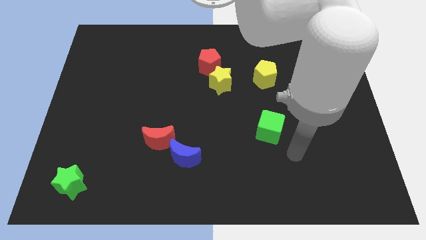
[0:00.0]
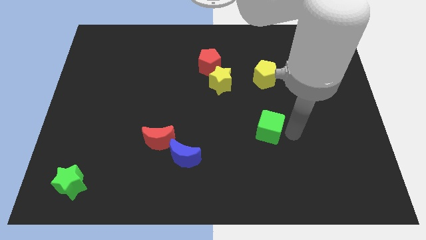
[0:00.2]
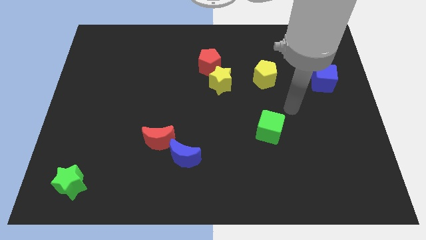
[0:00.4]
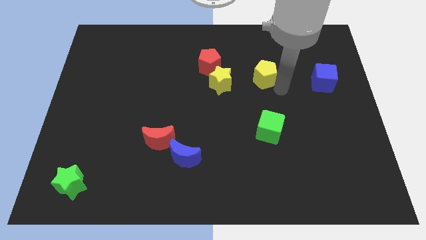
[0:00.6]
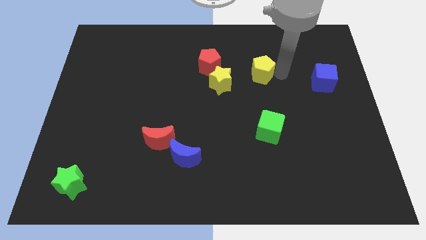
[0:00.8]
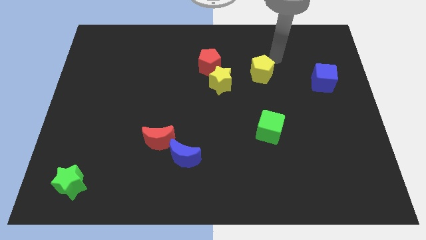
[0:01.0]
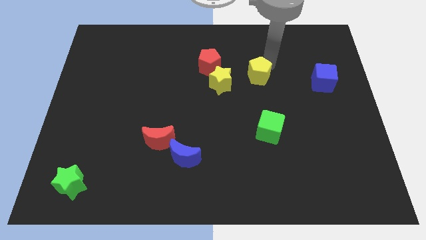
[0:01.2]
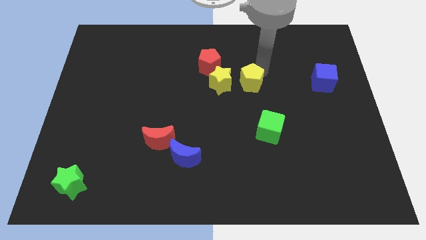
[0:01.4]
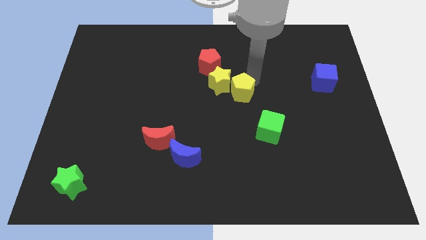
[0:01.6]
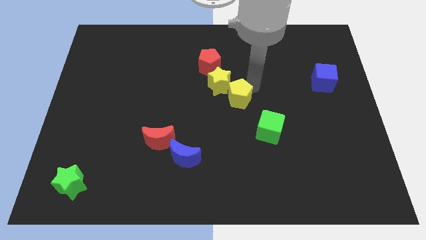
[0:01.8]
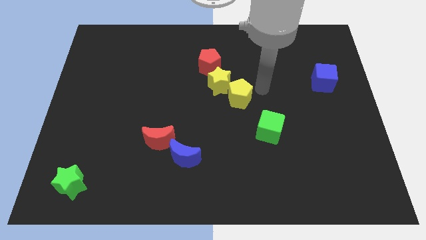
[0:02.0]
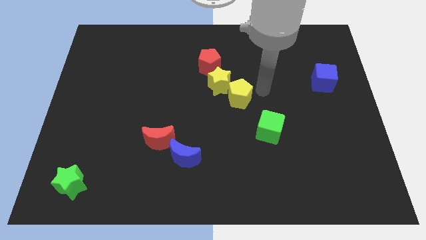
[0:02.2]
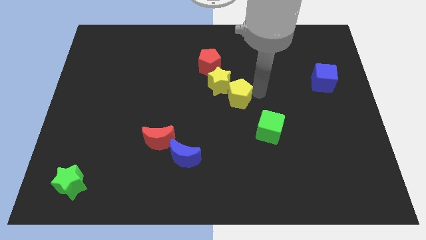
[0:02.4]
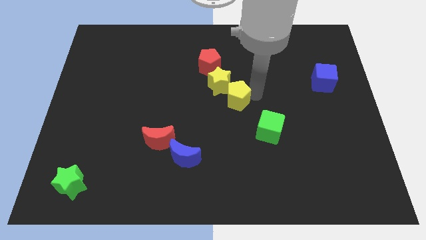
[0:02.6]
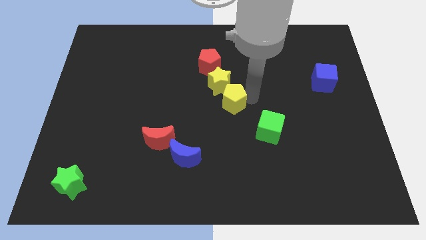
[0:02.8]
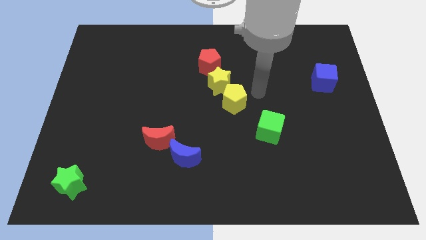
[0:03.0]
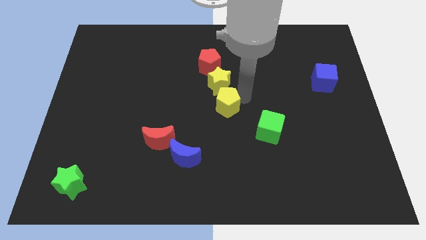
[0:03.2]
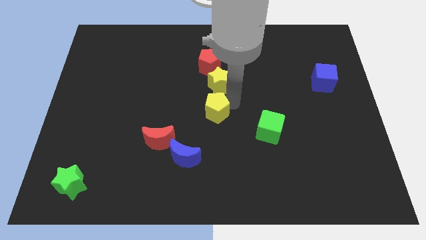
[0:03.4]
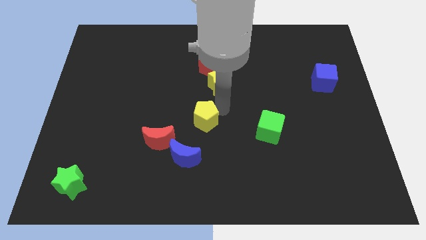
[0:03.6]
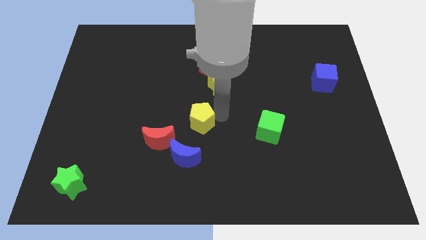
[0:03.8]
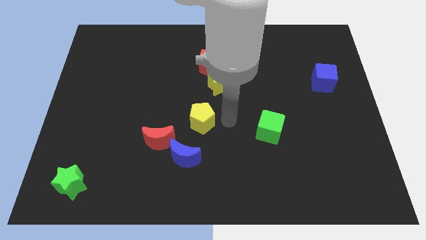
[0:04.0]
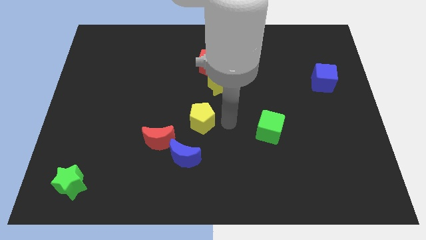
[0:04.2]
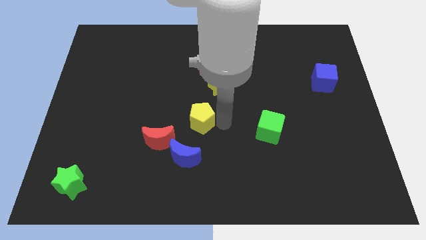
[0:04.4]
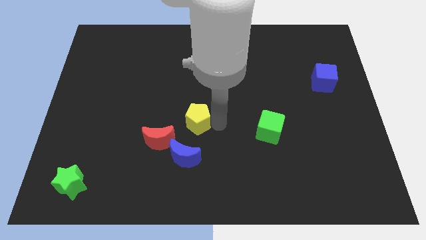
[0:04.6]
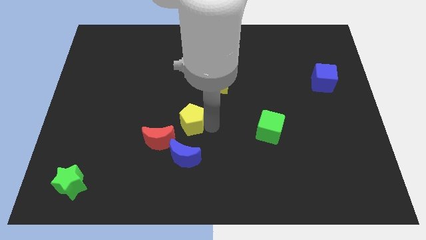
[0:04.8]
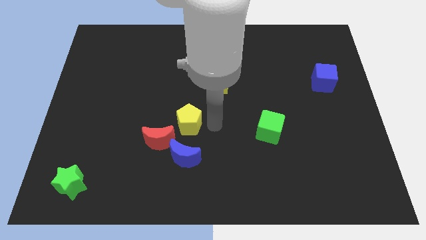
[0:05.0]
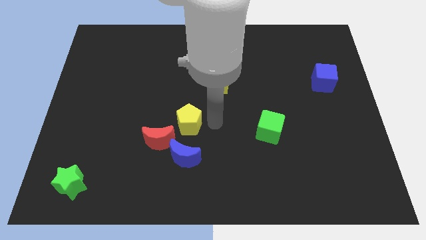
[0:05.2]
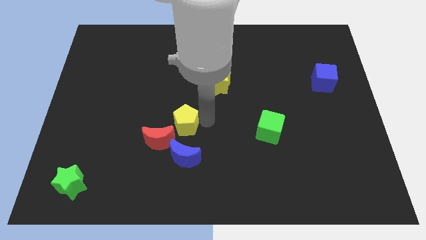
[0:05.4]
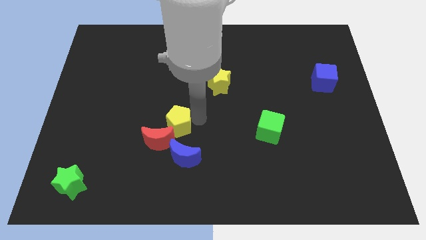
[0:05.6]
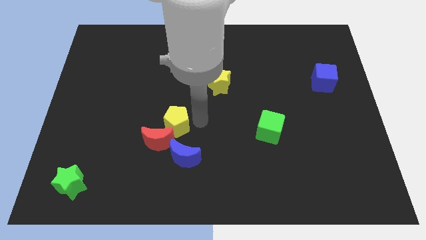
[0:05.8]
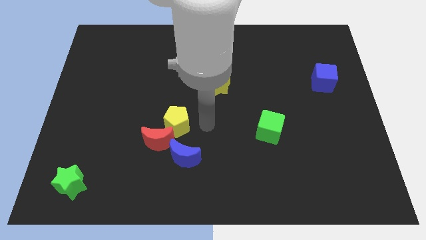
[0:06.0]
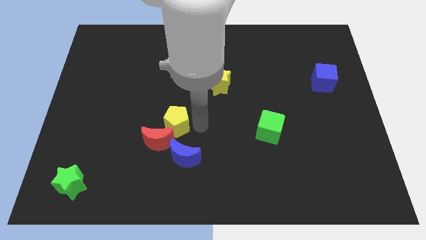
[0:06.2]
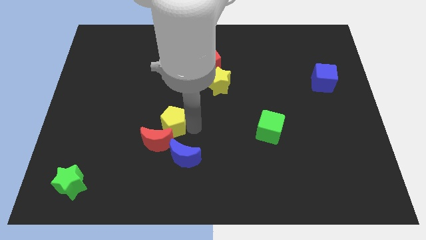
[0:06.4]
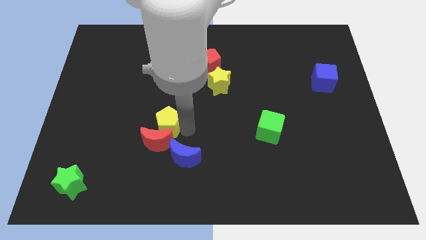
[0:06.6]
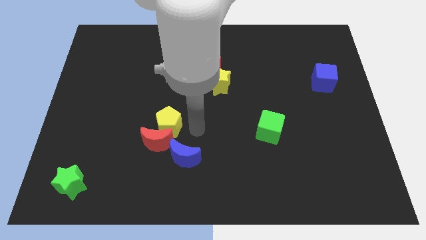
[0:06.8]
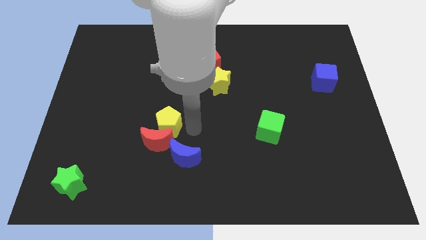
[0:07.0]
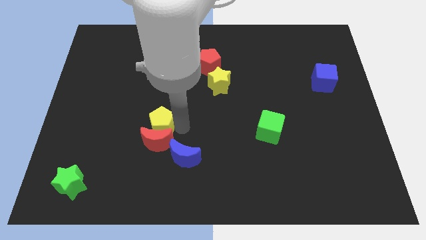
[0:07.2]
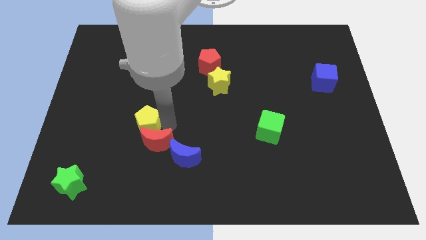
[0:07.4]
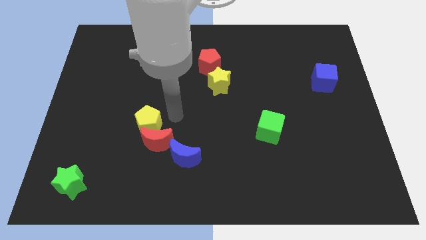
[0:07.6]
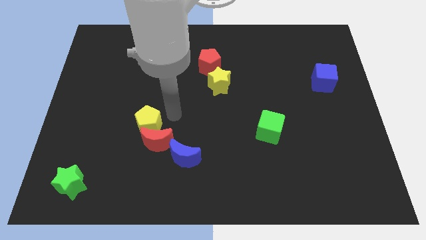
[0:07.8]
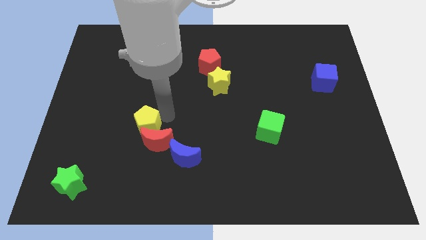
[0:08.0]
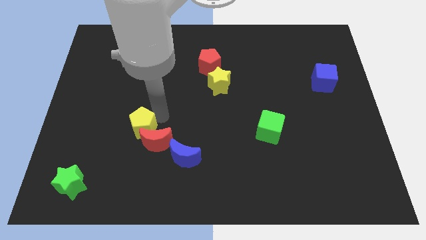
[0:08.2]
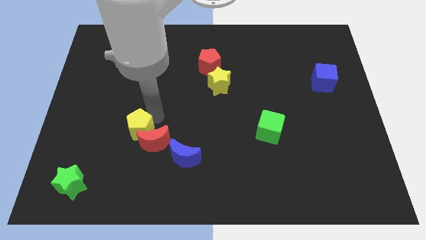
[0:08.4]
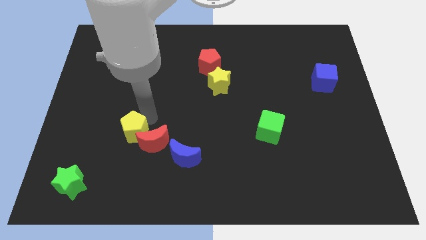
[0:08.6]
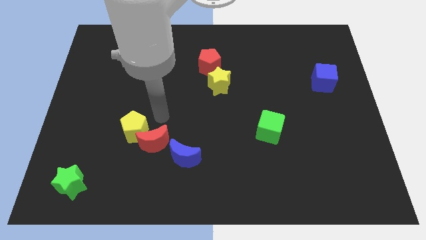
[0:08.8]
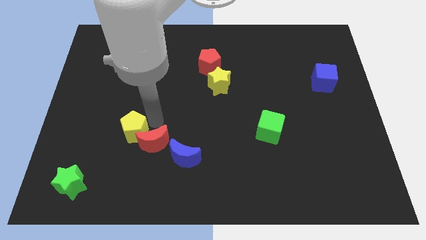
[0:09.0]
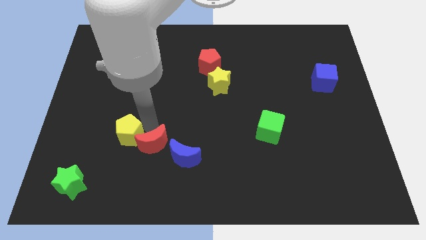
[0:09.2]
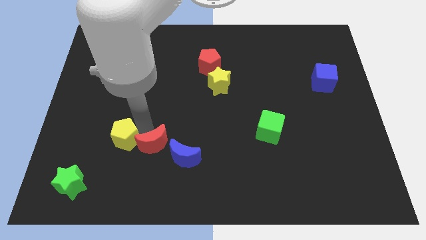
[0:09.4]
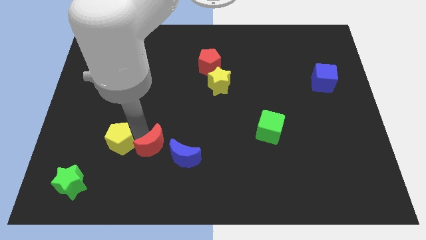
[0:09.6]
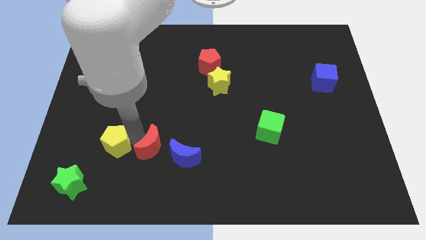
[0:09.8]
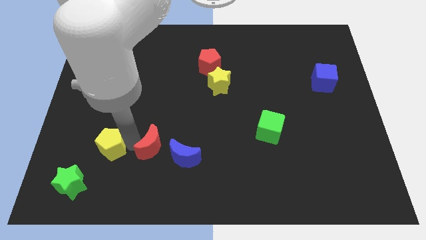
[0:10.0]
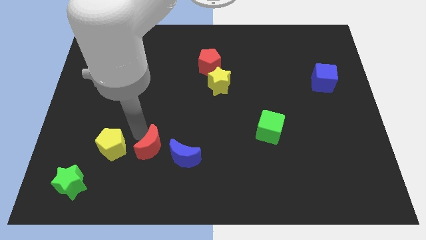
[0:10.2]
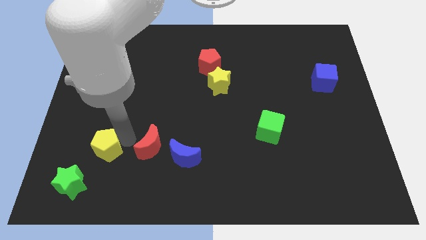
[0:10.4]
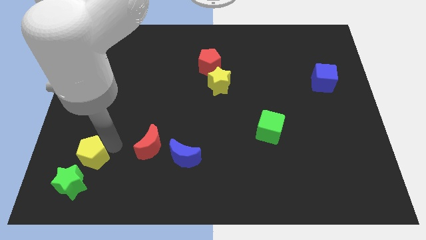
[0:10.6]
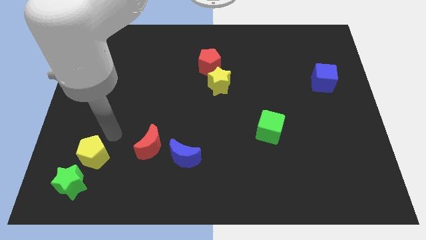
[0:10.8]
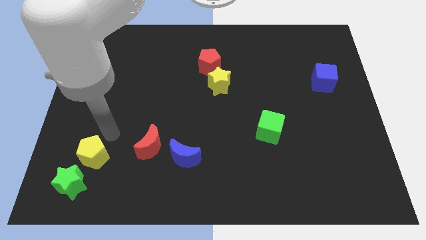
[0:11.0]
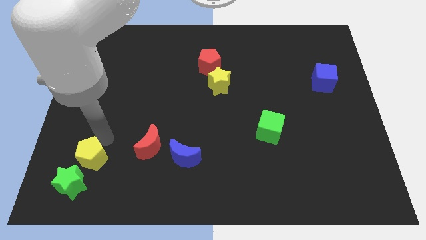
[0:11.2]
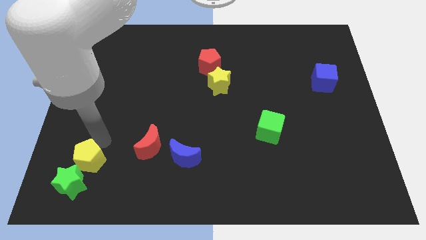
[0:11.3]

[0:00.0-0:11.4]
put the yellow pentagon next to the green star

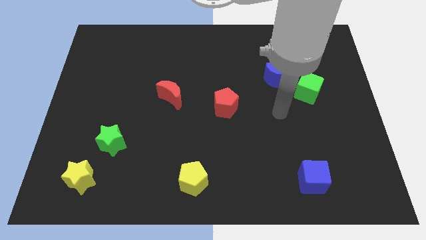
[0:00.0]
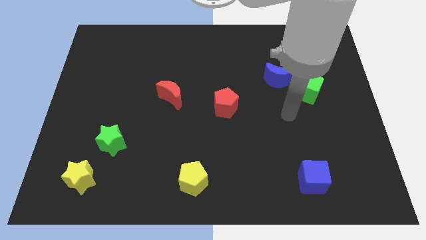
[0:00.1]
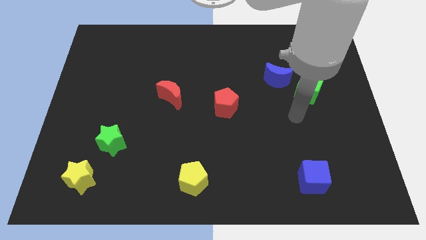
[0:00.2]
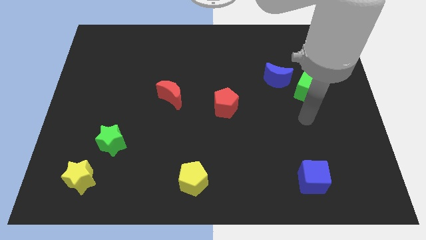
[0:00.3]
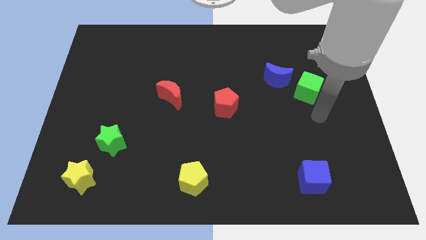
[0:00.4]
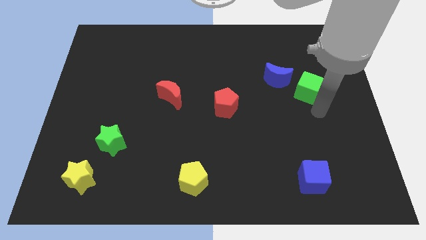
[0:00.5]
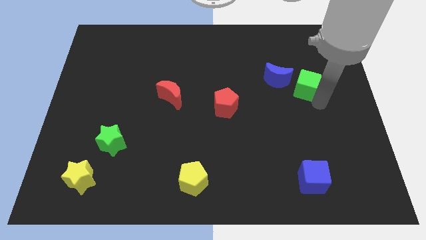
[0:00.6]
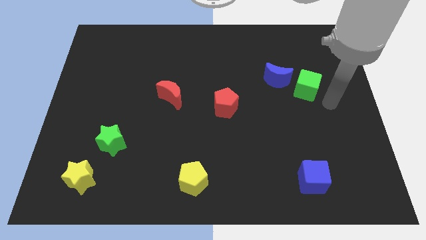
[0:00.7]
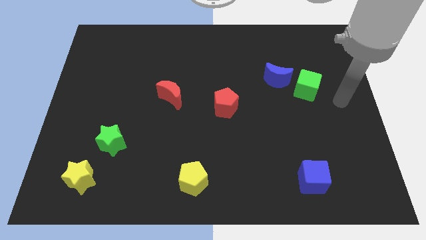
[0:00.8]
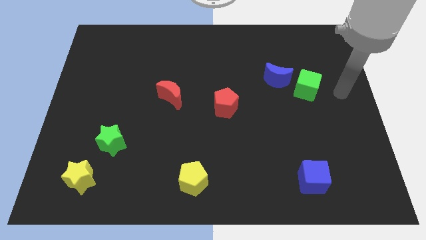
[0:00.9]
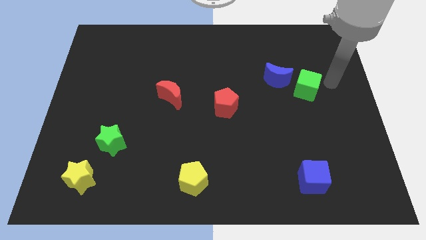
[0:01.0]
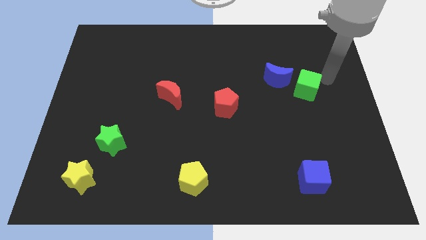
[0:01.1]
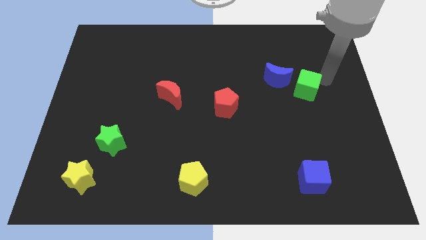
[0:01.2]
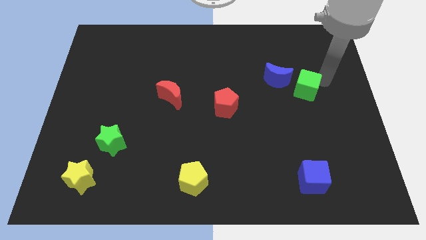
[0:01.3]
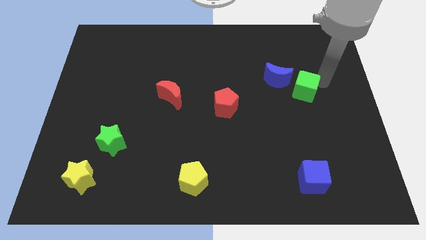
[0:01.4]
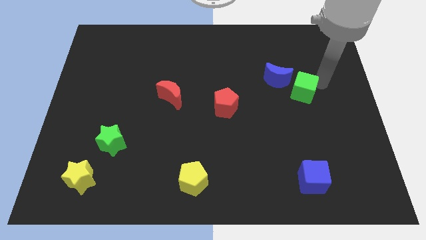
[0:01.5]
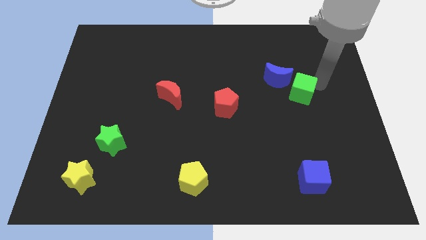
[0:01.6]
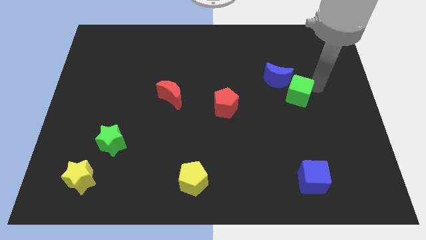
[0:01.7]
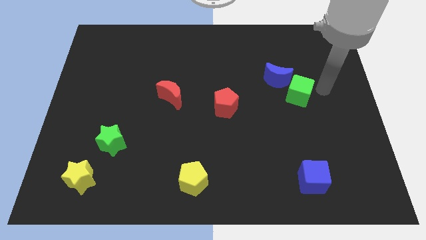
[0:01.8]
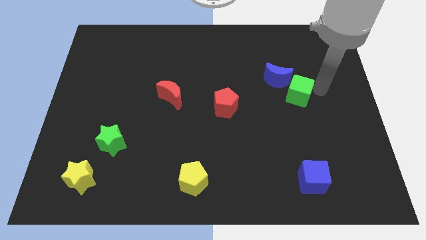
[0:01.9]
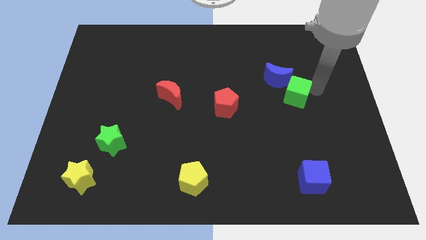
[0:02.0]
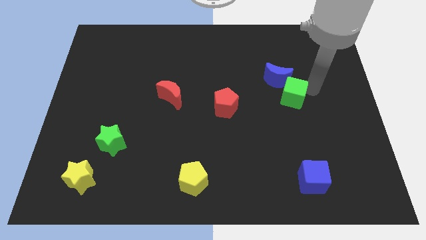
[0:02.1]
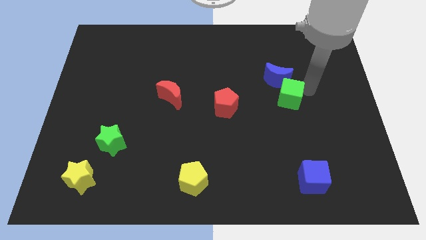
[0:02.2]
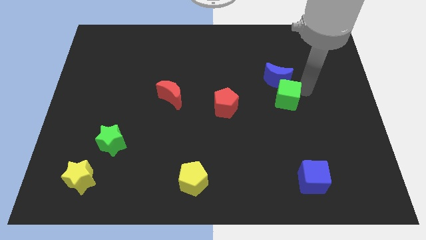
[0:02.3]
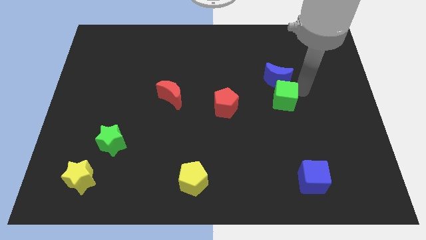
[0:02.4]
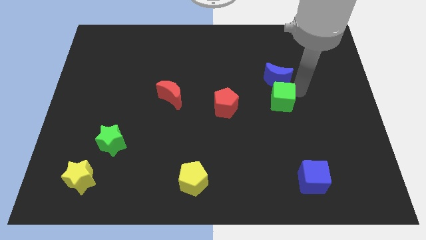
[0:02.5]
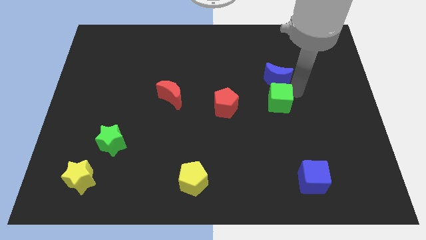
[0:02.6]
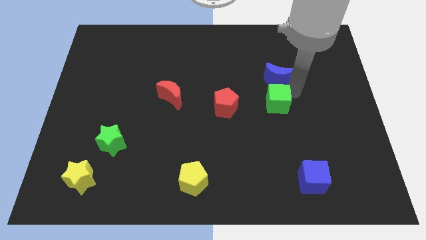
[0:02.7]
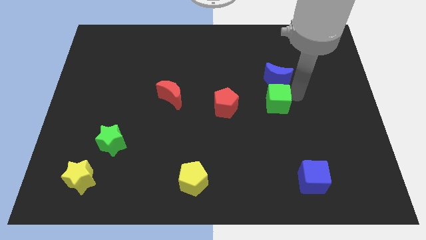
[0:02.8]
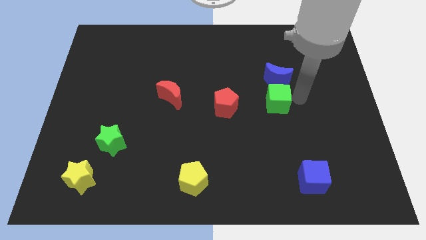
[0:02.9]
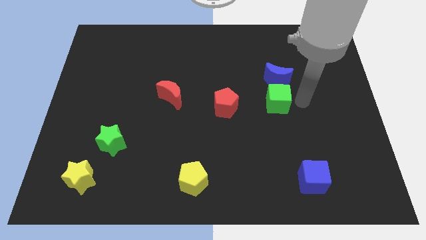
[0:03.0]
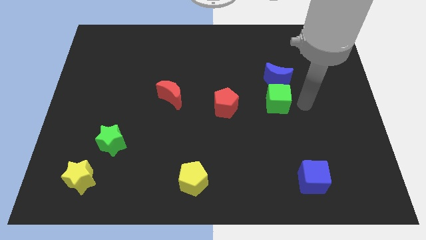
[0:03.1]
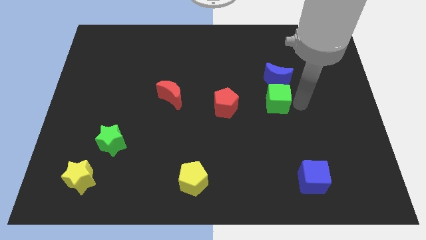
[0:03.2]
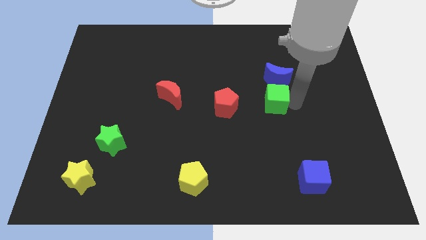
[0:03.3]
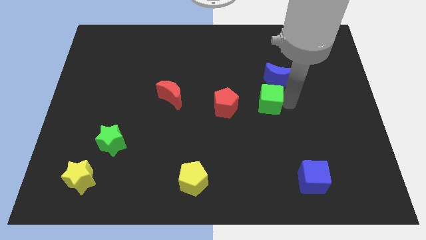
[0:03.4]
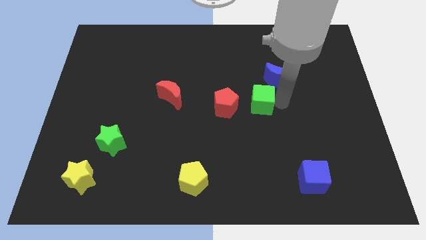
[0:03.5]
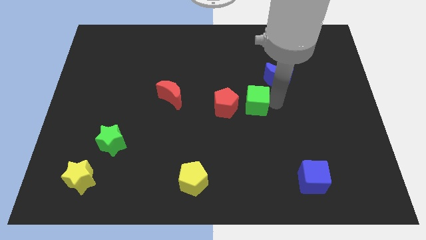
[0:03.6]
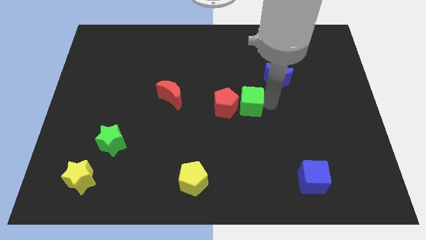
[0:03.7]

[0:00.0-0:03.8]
slide the green cube towards the red pentagon
